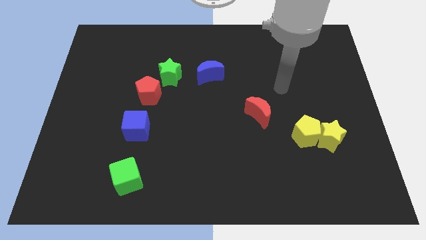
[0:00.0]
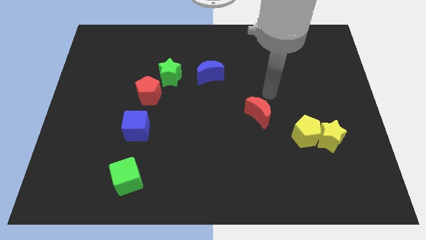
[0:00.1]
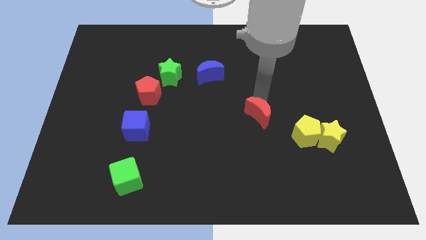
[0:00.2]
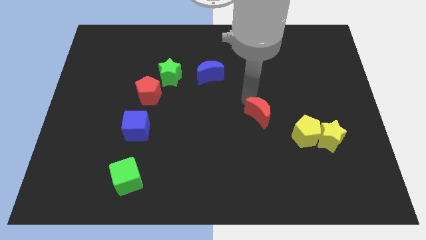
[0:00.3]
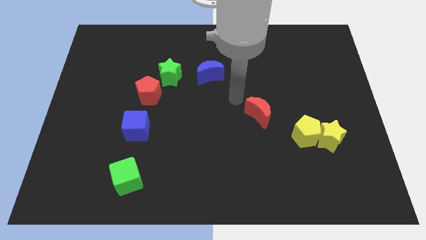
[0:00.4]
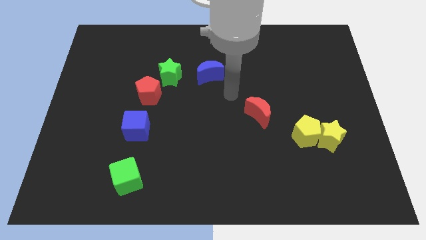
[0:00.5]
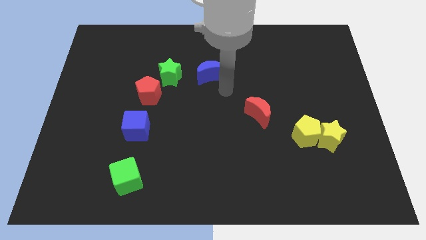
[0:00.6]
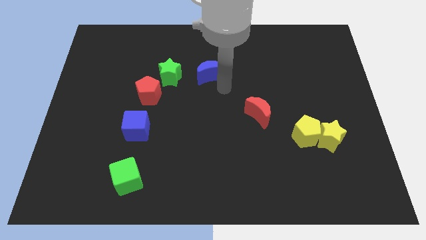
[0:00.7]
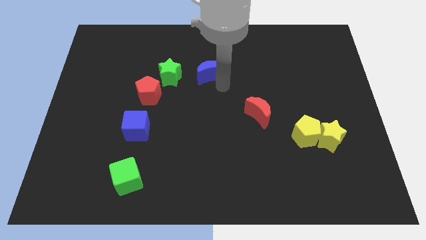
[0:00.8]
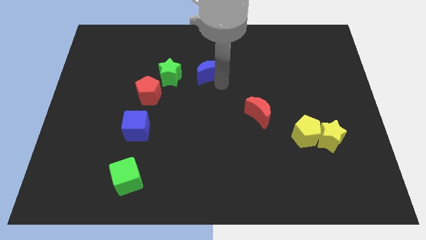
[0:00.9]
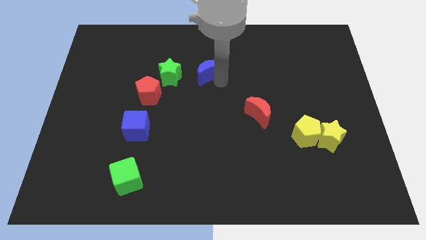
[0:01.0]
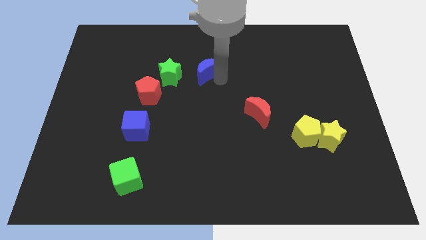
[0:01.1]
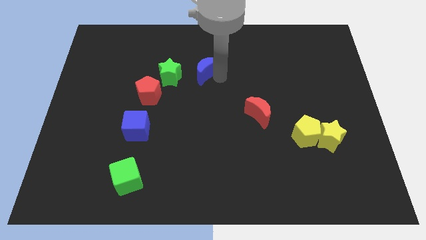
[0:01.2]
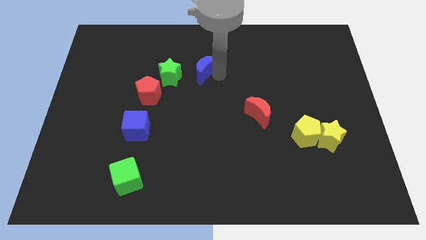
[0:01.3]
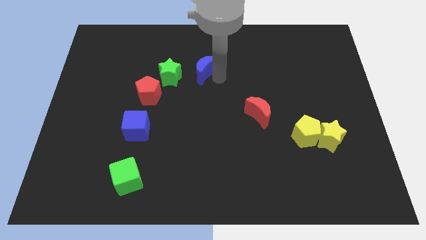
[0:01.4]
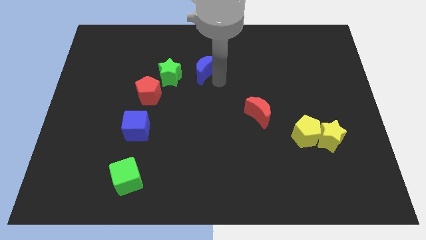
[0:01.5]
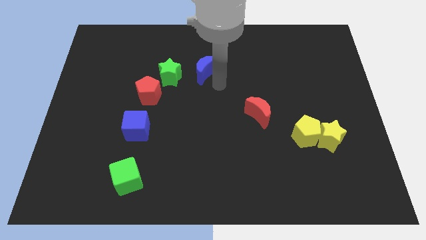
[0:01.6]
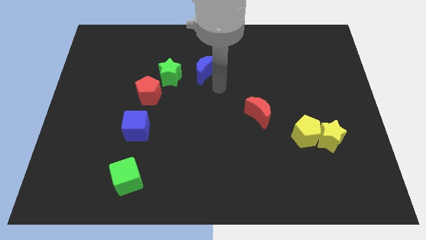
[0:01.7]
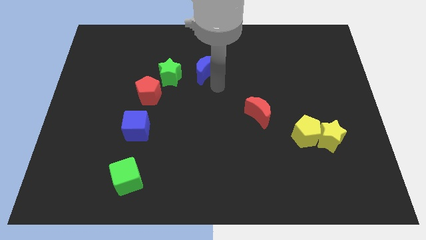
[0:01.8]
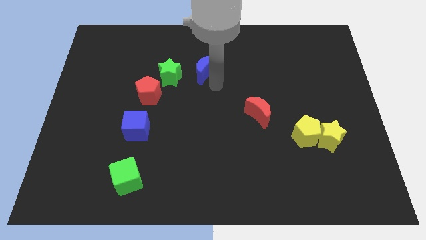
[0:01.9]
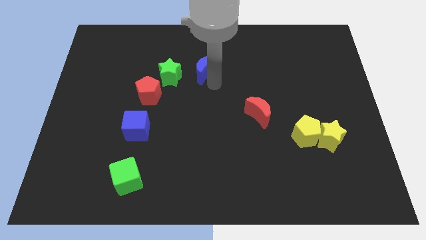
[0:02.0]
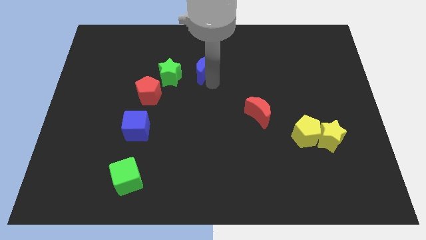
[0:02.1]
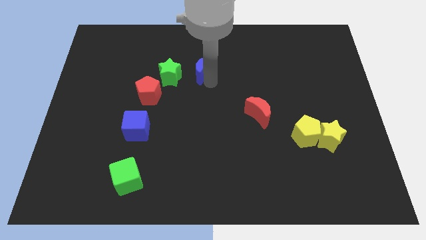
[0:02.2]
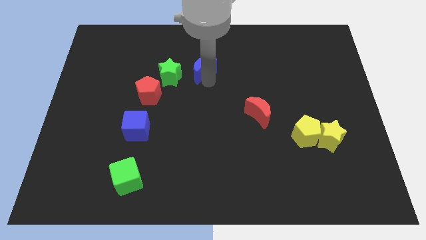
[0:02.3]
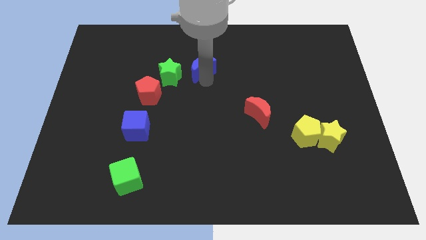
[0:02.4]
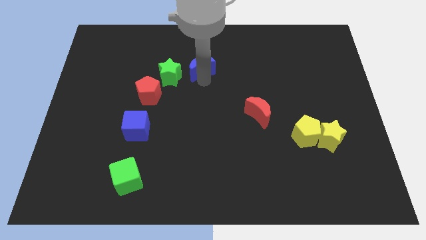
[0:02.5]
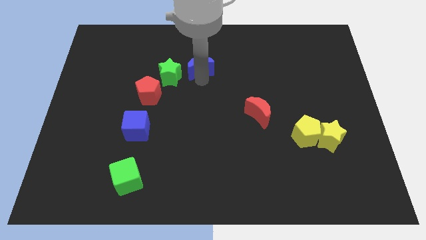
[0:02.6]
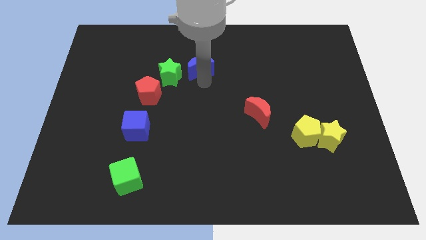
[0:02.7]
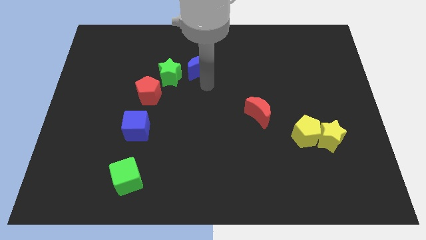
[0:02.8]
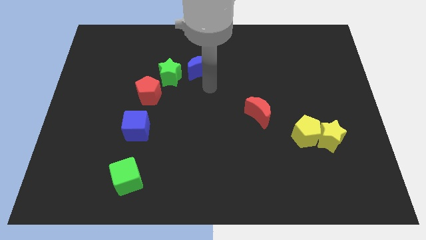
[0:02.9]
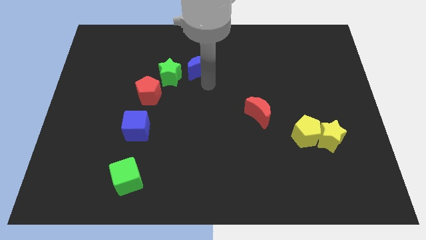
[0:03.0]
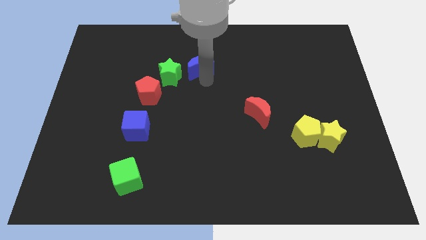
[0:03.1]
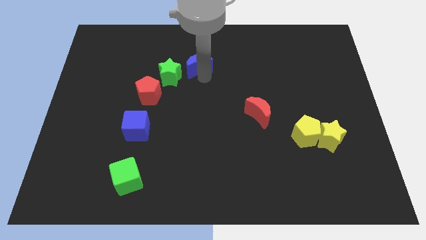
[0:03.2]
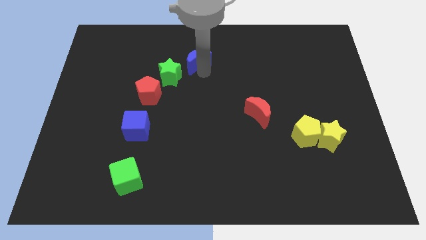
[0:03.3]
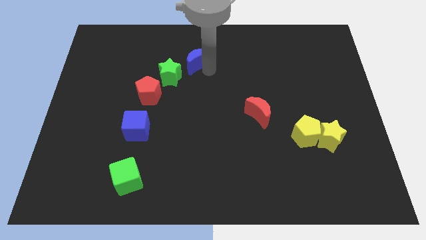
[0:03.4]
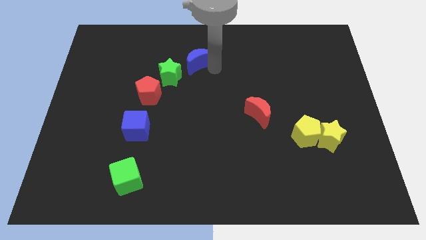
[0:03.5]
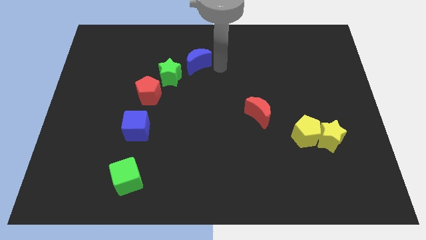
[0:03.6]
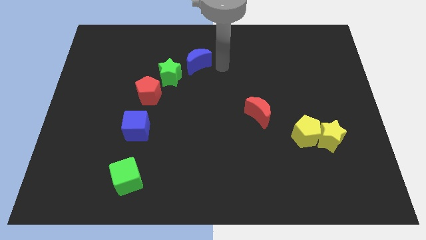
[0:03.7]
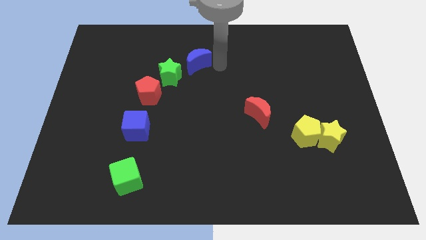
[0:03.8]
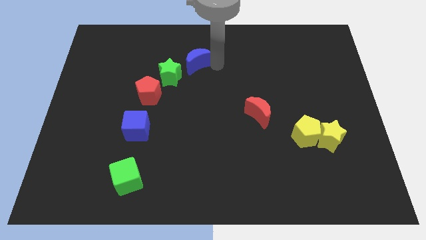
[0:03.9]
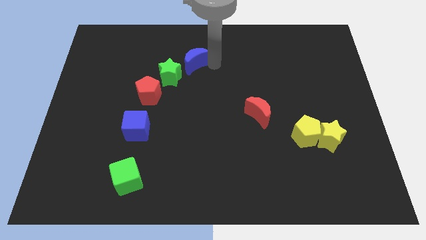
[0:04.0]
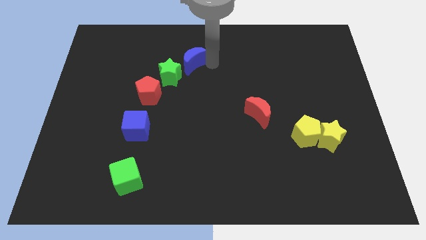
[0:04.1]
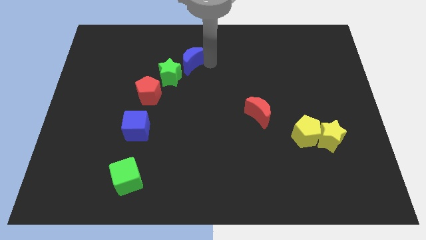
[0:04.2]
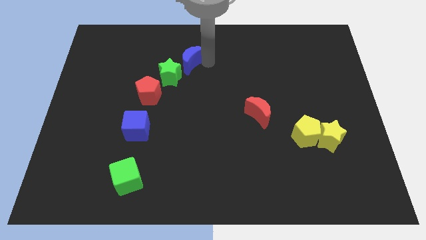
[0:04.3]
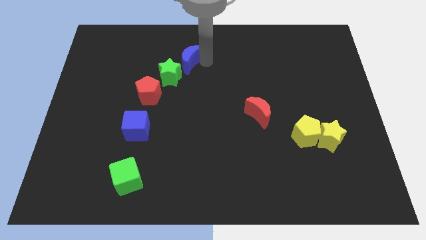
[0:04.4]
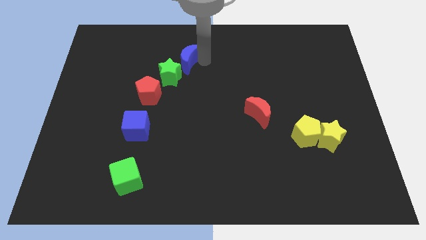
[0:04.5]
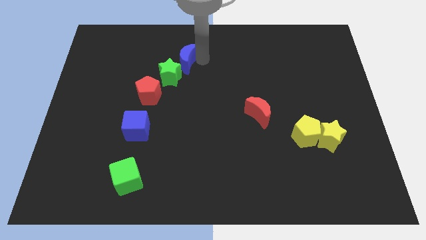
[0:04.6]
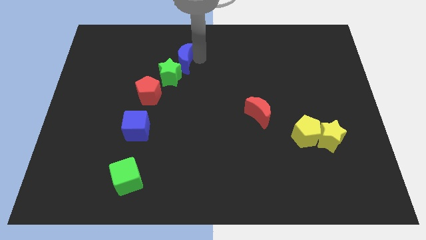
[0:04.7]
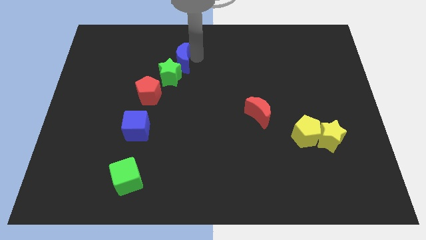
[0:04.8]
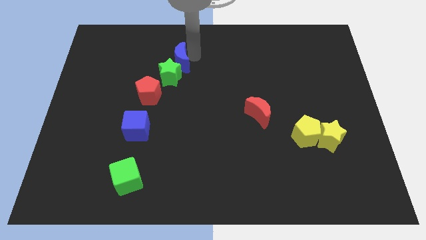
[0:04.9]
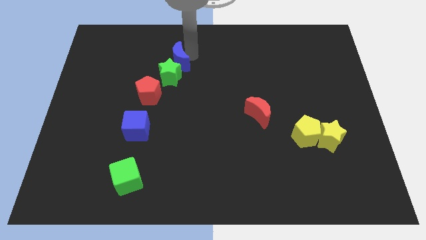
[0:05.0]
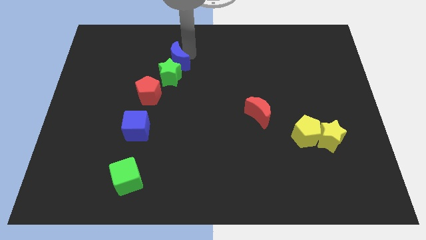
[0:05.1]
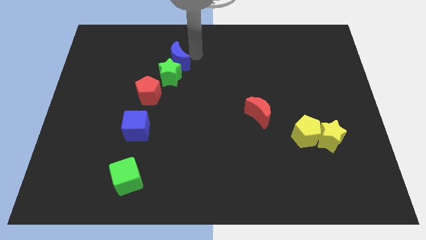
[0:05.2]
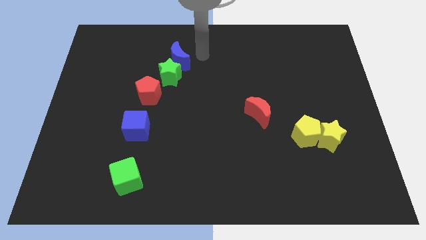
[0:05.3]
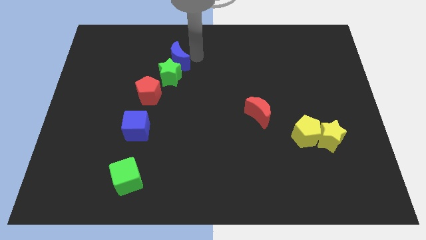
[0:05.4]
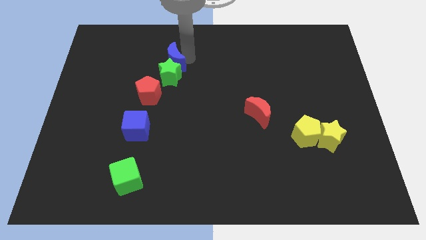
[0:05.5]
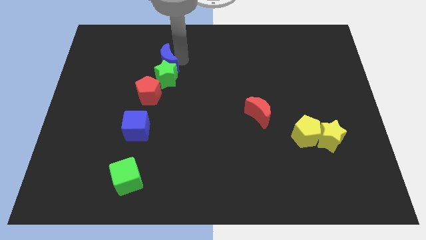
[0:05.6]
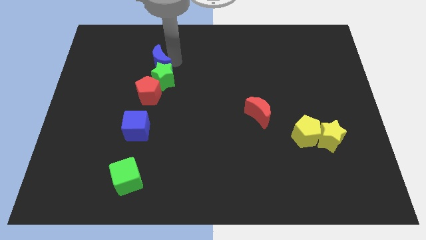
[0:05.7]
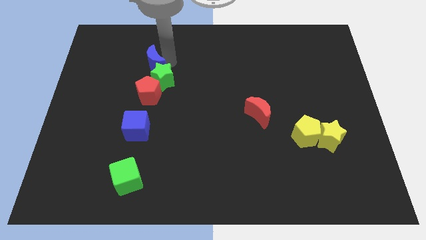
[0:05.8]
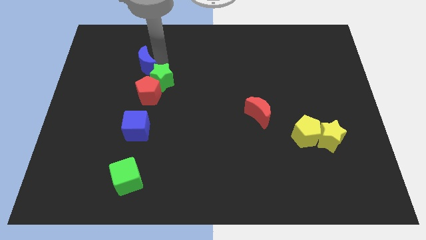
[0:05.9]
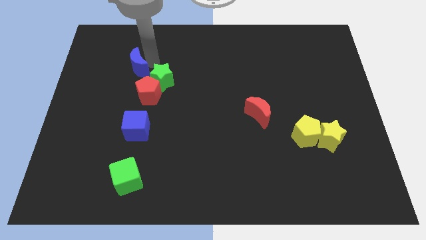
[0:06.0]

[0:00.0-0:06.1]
slide the blue moon just left of the green star

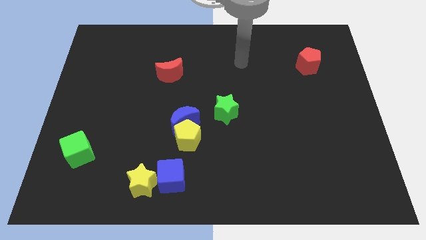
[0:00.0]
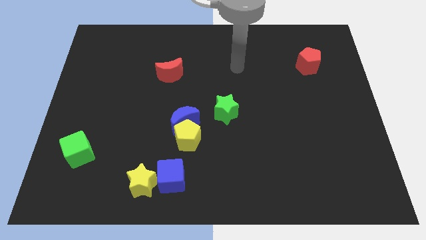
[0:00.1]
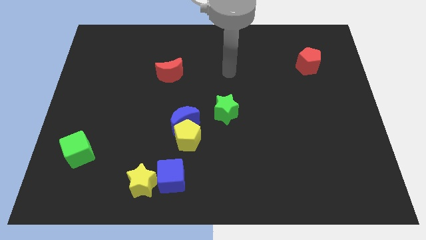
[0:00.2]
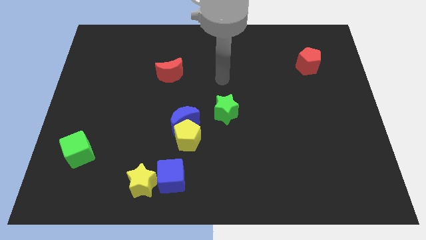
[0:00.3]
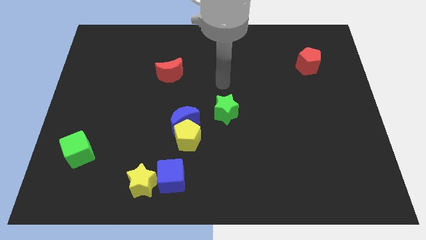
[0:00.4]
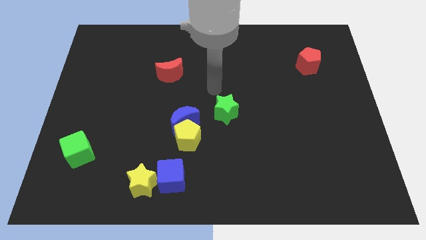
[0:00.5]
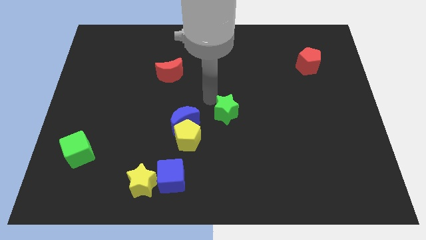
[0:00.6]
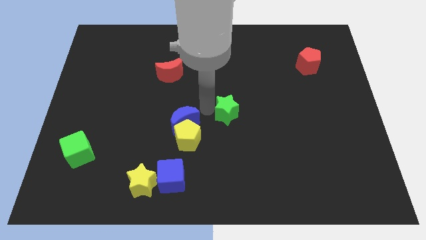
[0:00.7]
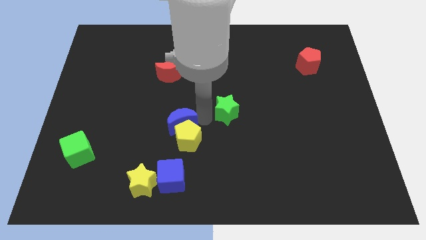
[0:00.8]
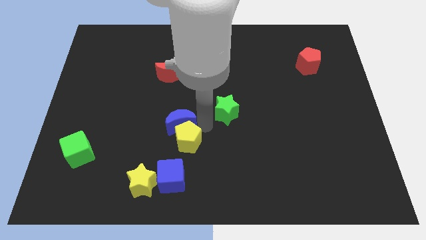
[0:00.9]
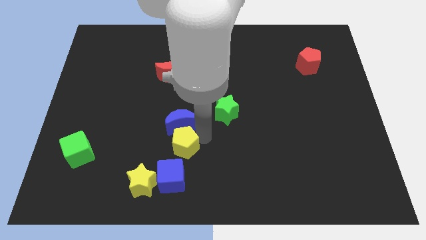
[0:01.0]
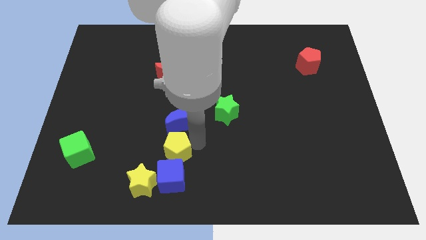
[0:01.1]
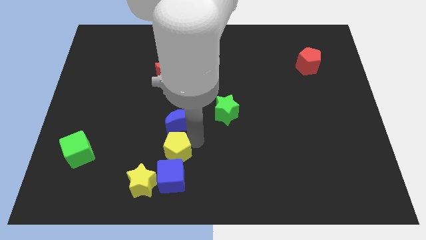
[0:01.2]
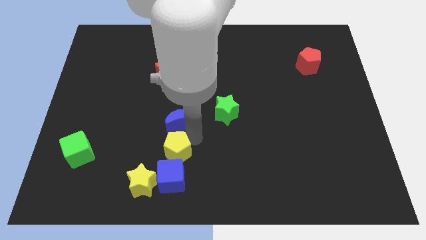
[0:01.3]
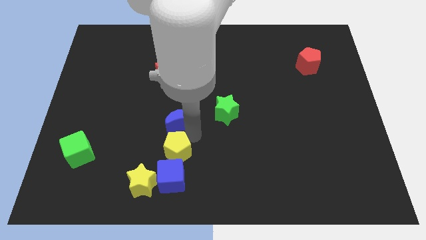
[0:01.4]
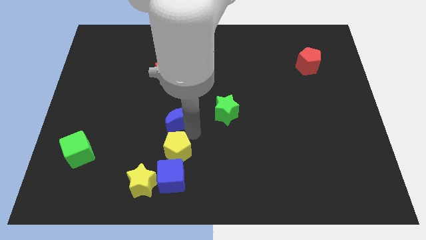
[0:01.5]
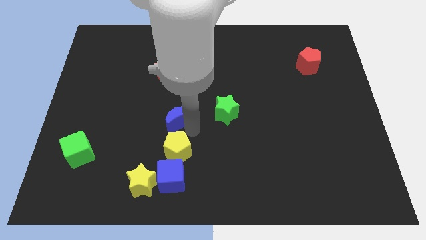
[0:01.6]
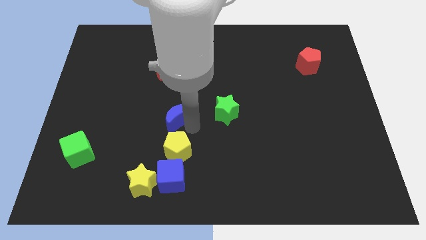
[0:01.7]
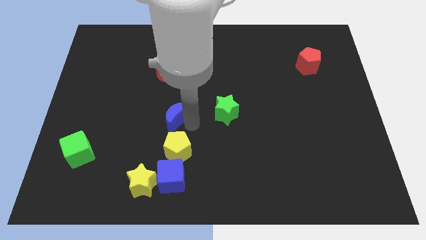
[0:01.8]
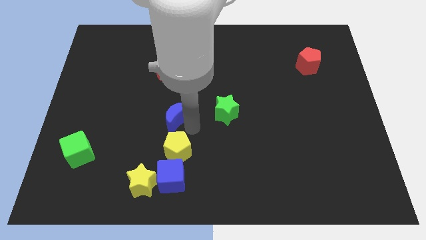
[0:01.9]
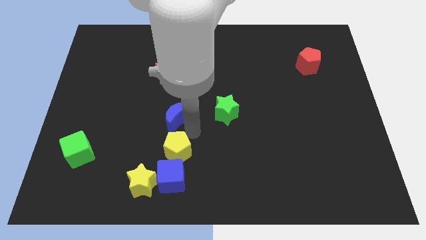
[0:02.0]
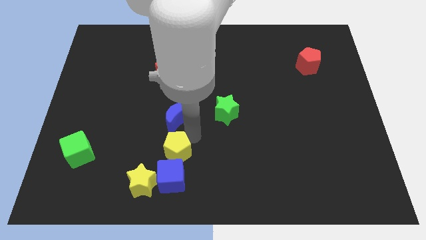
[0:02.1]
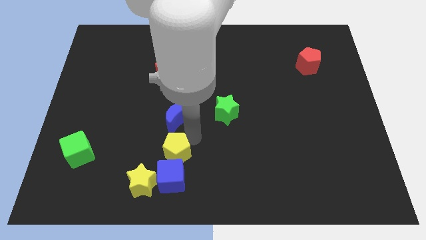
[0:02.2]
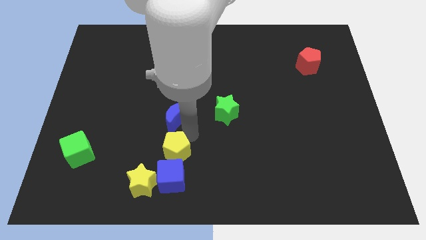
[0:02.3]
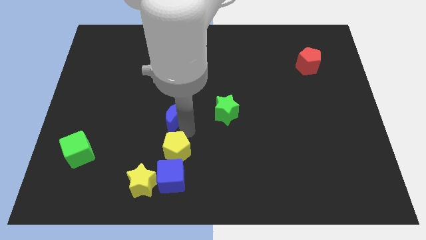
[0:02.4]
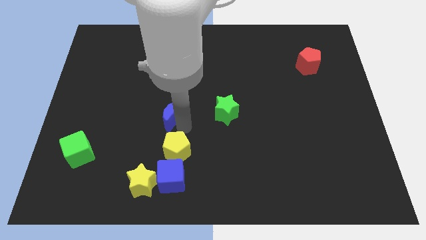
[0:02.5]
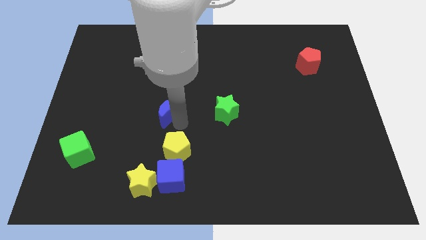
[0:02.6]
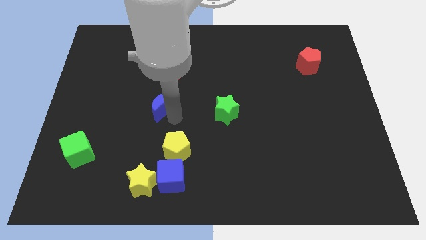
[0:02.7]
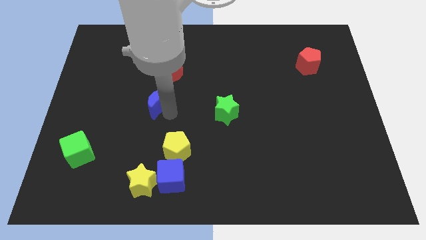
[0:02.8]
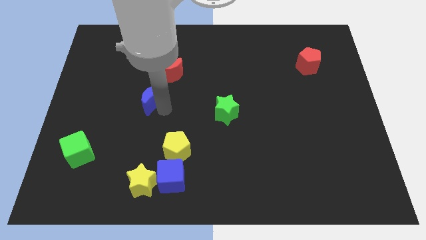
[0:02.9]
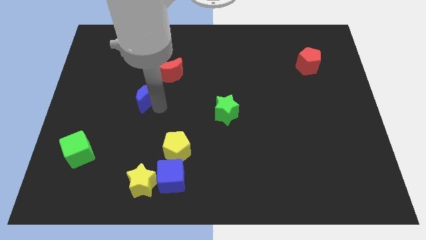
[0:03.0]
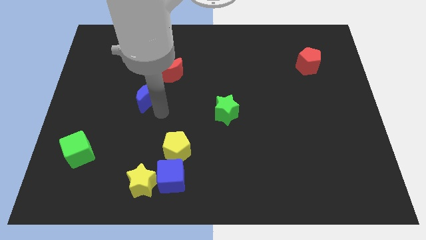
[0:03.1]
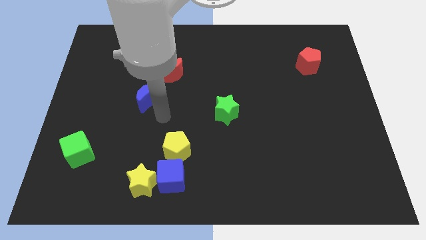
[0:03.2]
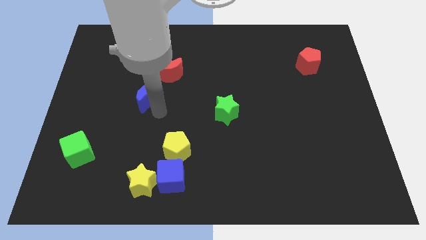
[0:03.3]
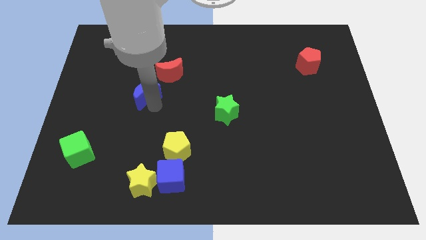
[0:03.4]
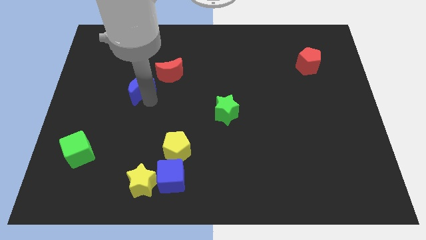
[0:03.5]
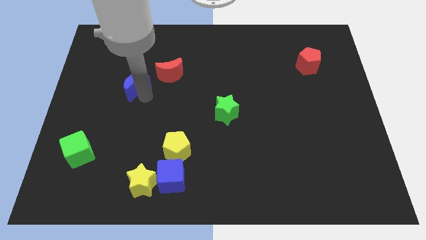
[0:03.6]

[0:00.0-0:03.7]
push the blue moon left of the red moon
